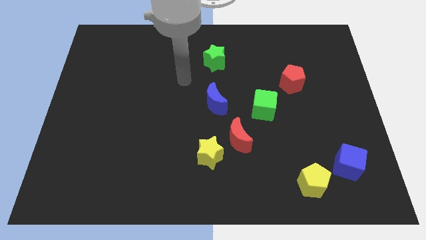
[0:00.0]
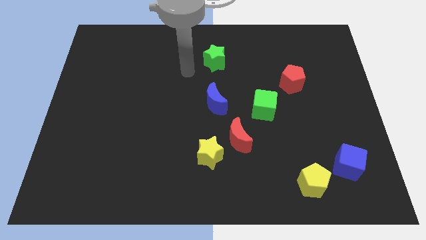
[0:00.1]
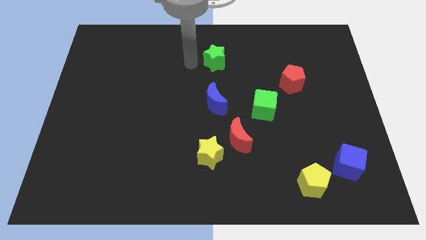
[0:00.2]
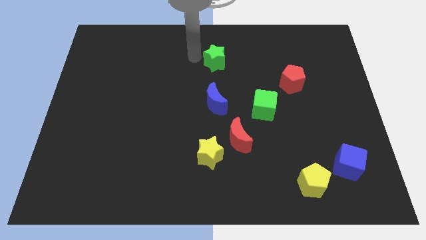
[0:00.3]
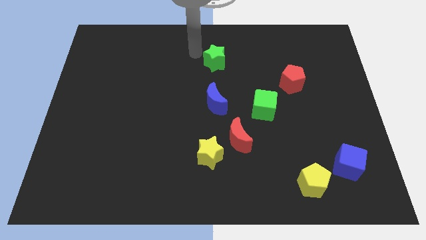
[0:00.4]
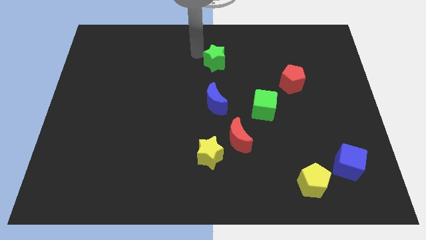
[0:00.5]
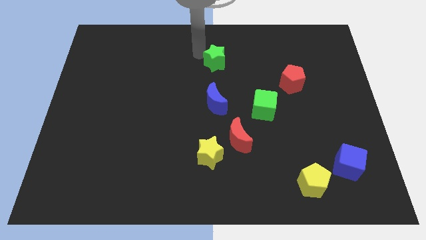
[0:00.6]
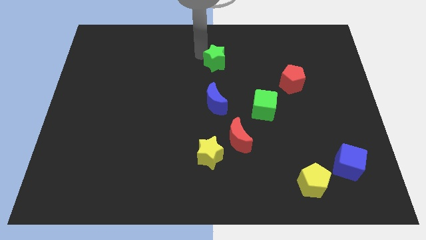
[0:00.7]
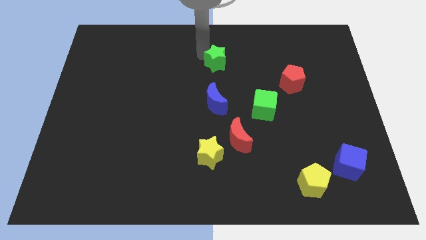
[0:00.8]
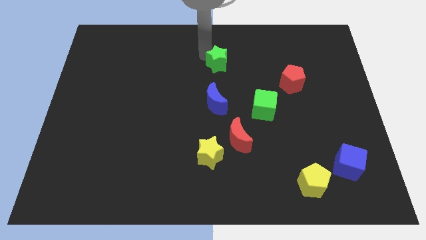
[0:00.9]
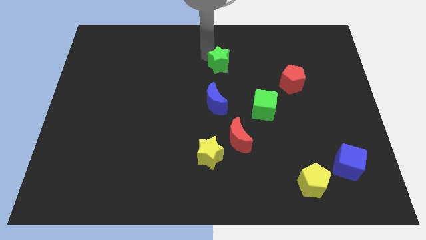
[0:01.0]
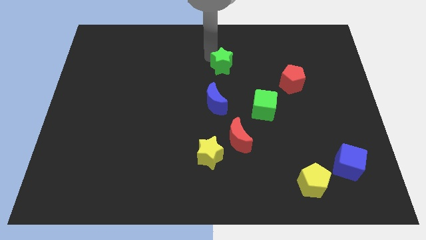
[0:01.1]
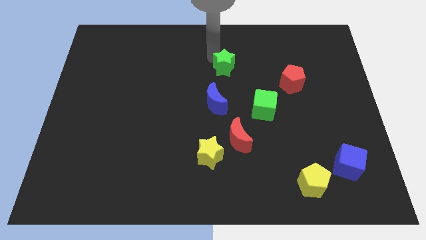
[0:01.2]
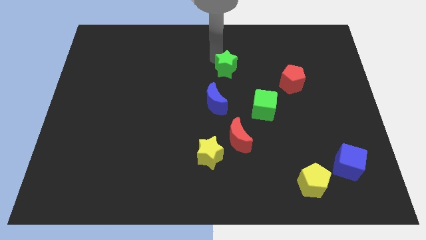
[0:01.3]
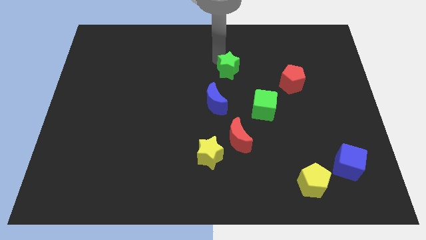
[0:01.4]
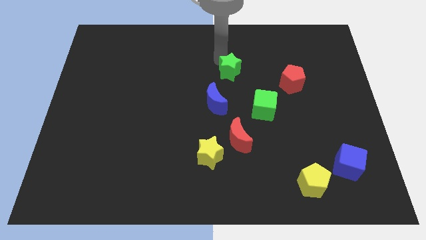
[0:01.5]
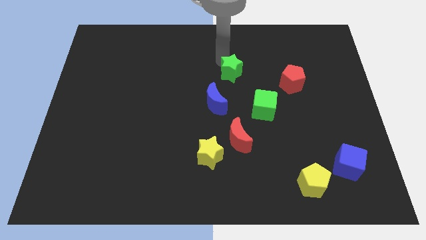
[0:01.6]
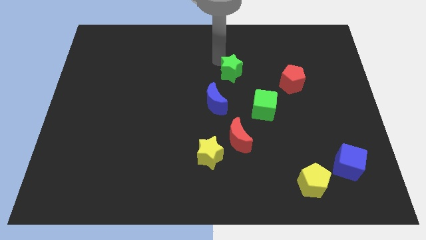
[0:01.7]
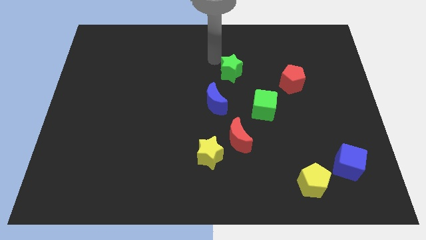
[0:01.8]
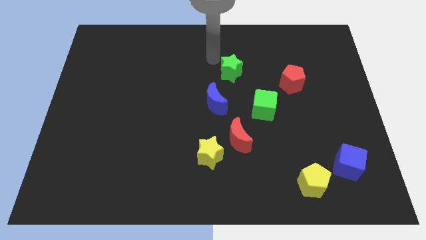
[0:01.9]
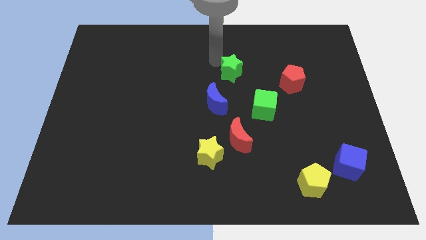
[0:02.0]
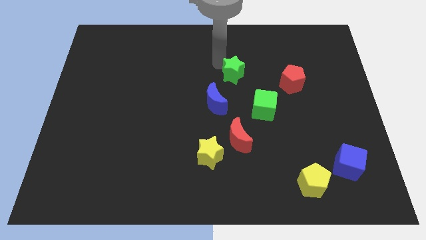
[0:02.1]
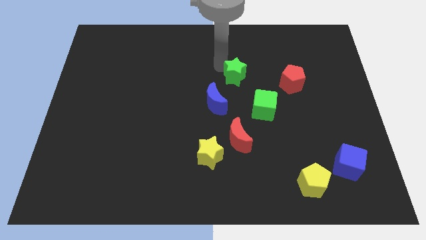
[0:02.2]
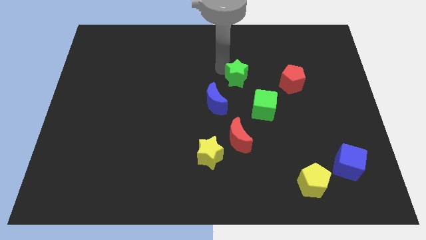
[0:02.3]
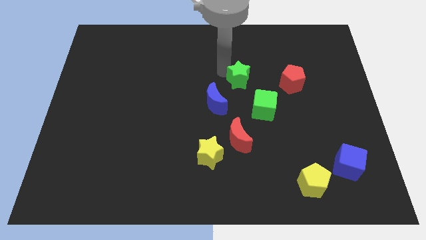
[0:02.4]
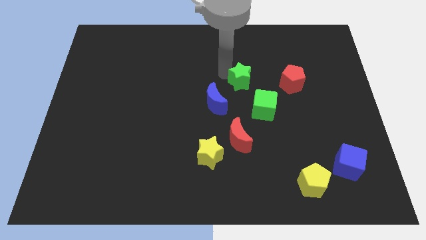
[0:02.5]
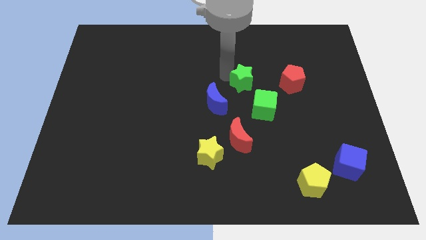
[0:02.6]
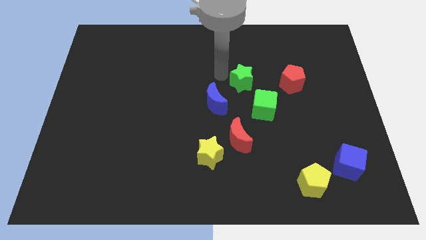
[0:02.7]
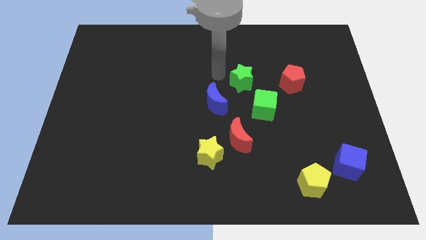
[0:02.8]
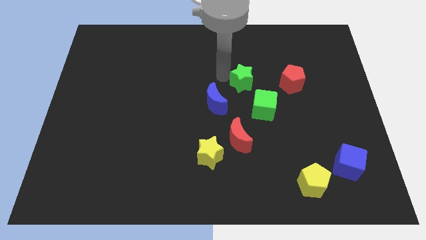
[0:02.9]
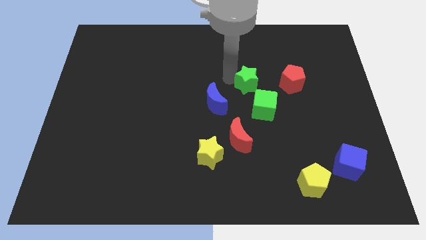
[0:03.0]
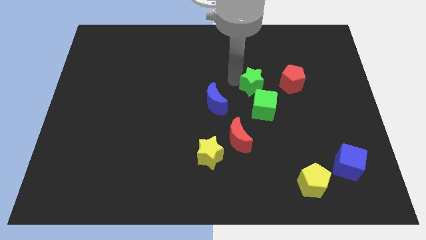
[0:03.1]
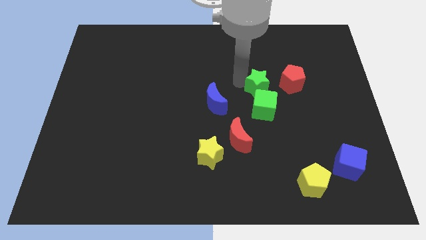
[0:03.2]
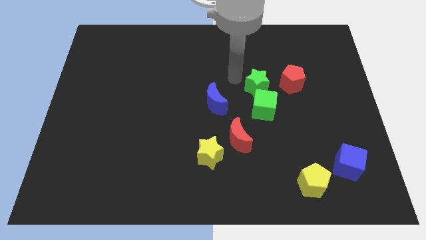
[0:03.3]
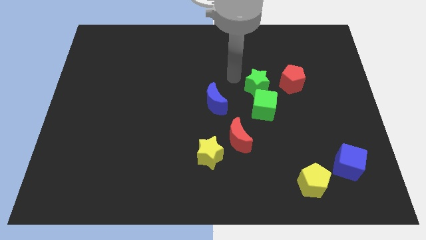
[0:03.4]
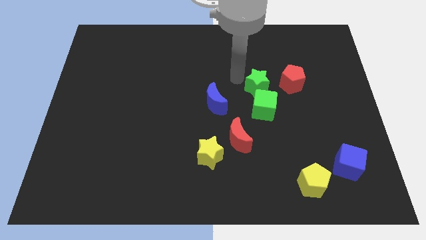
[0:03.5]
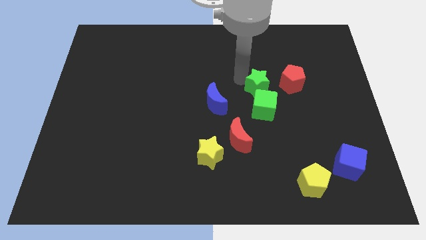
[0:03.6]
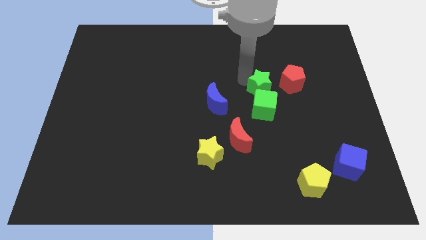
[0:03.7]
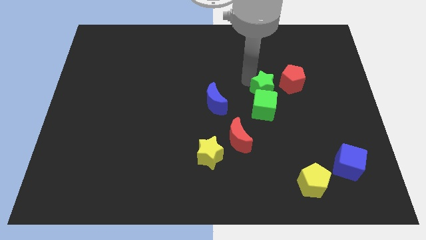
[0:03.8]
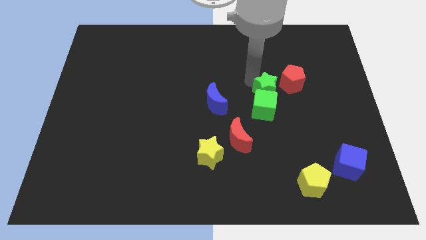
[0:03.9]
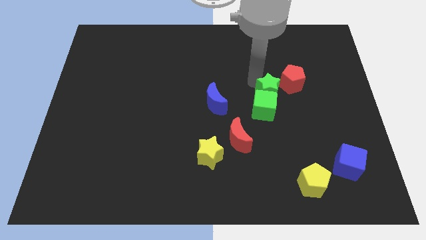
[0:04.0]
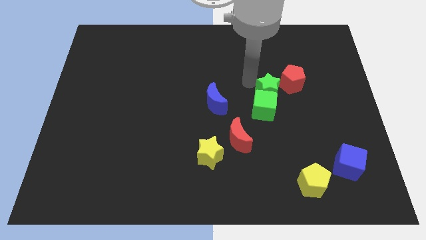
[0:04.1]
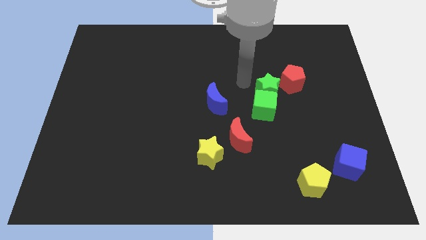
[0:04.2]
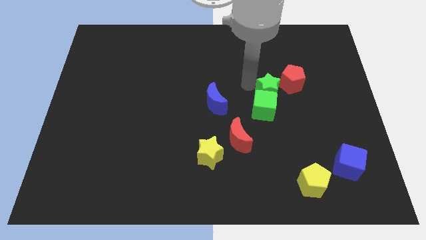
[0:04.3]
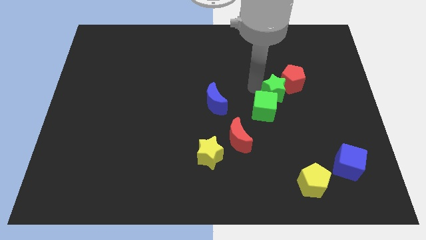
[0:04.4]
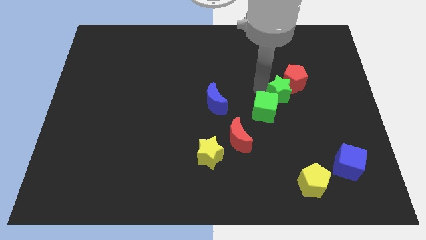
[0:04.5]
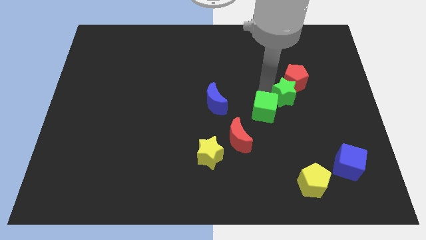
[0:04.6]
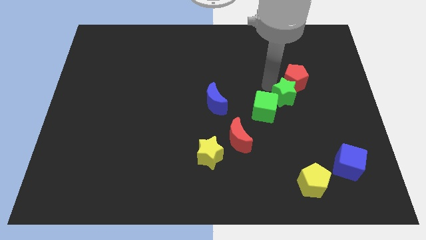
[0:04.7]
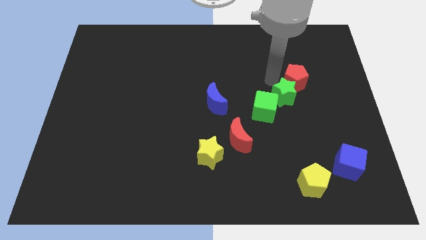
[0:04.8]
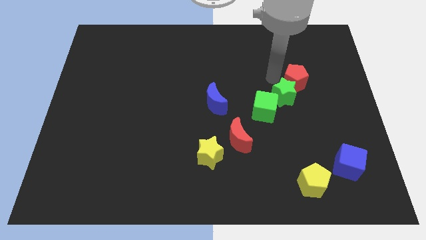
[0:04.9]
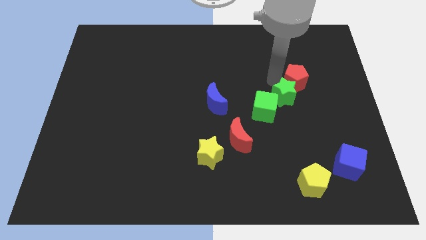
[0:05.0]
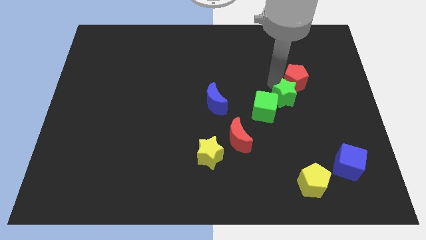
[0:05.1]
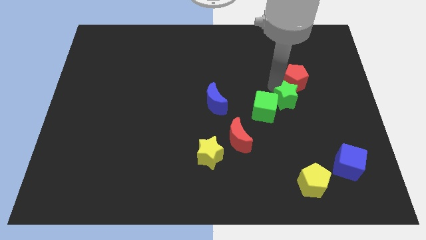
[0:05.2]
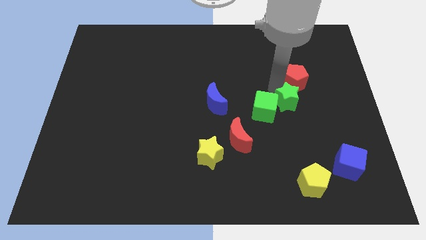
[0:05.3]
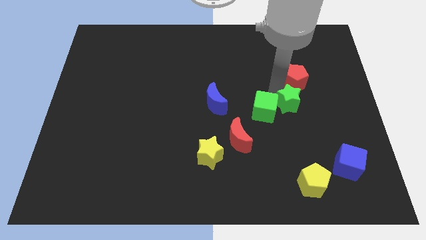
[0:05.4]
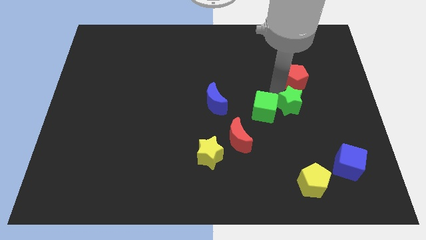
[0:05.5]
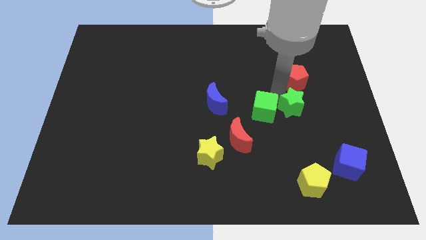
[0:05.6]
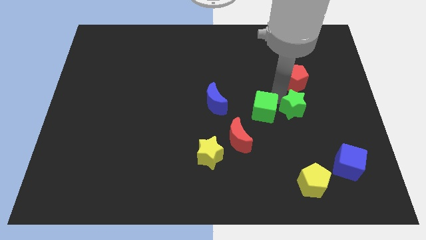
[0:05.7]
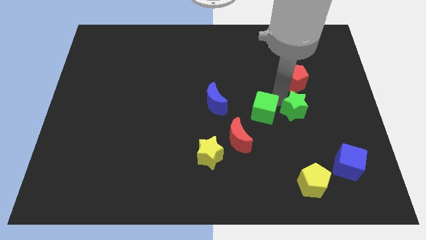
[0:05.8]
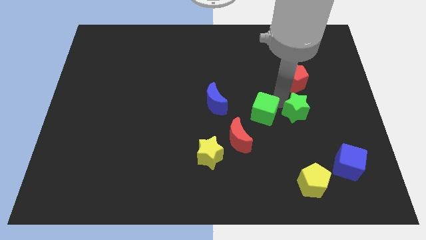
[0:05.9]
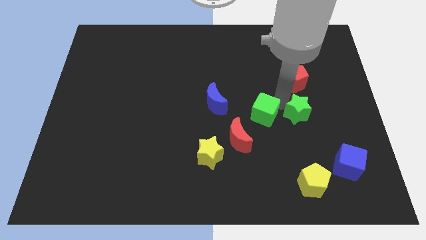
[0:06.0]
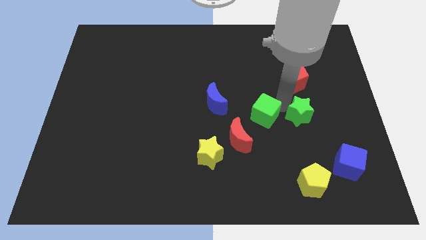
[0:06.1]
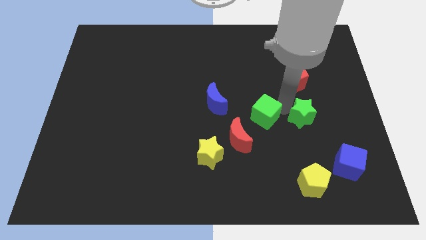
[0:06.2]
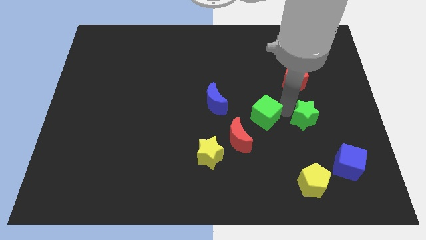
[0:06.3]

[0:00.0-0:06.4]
push the green star to the top of the yellow pentagon
